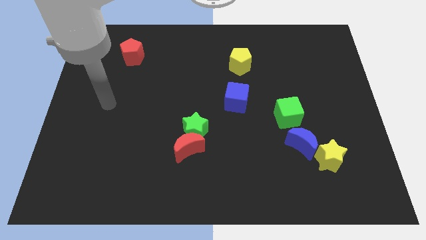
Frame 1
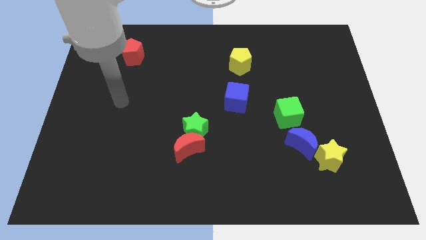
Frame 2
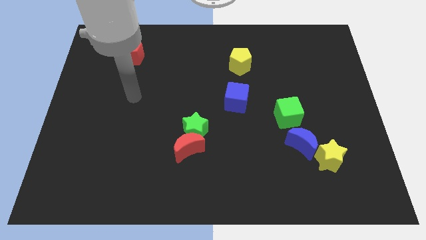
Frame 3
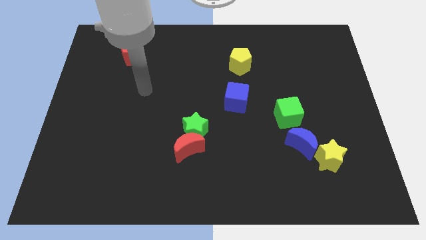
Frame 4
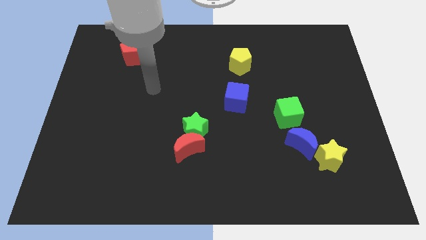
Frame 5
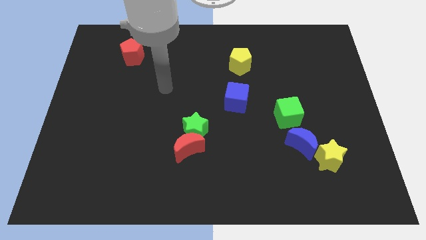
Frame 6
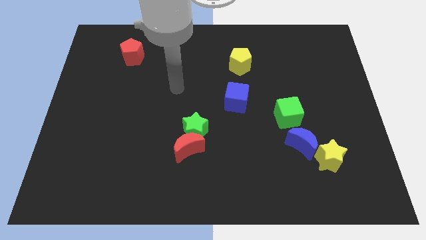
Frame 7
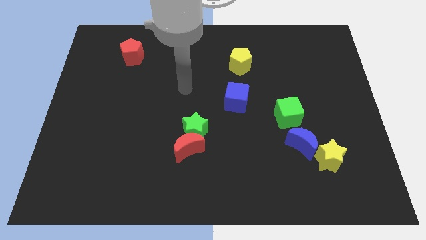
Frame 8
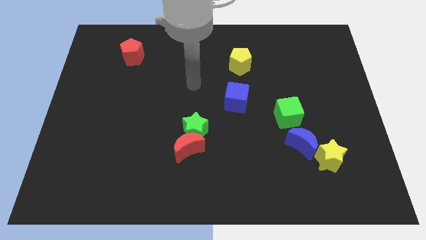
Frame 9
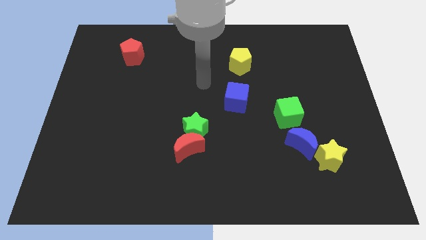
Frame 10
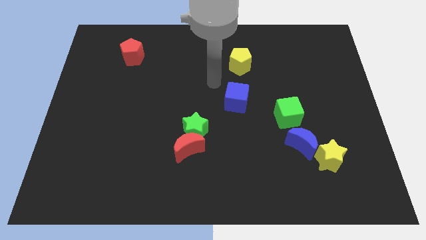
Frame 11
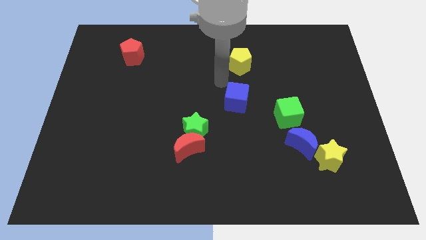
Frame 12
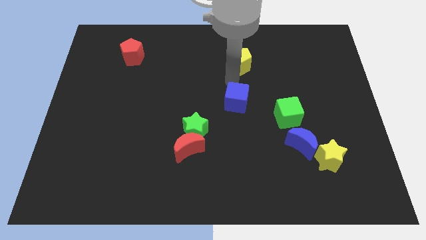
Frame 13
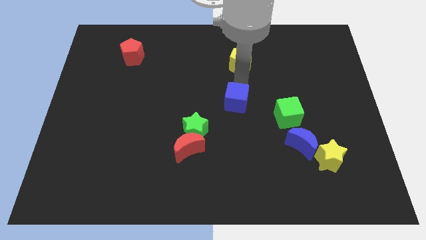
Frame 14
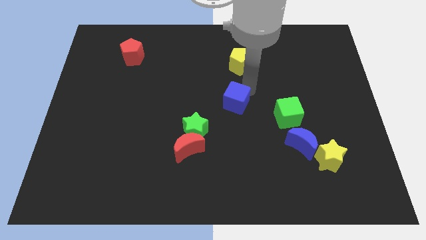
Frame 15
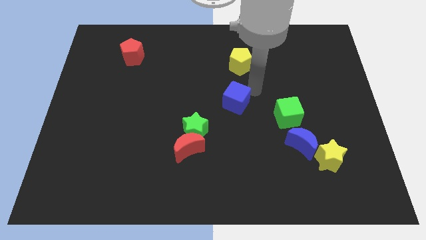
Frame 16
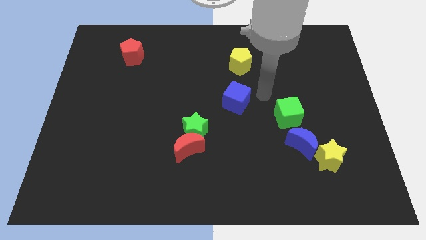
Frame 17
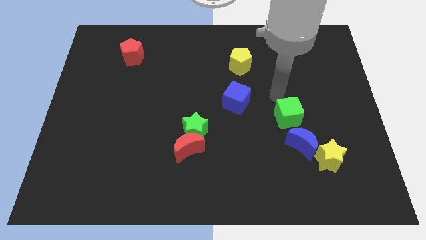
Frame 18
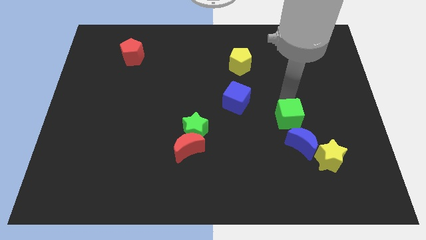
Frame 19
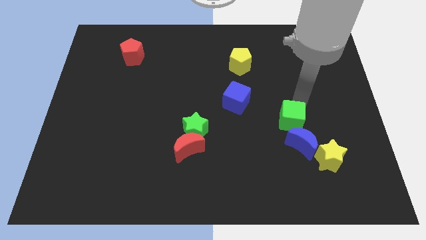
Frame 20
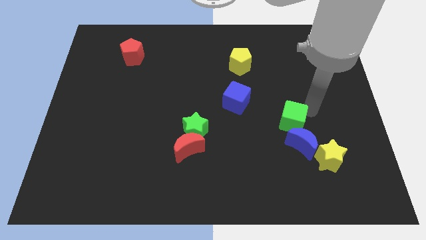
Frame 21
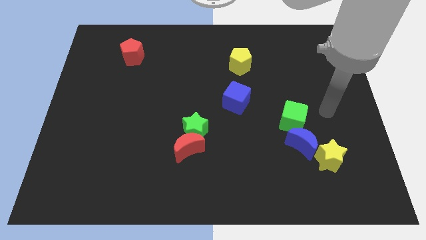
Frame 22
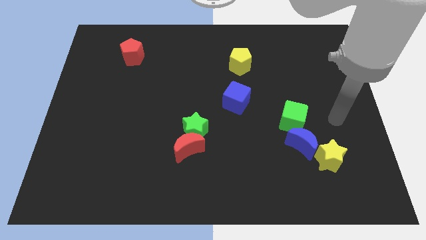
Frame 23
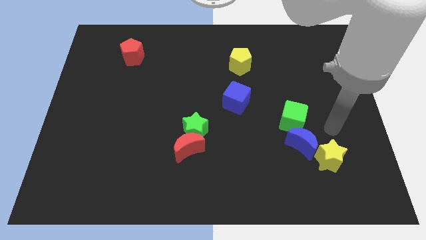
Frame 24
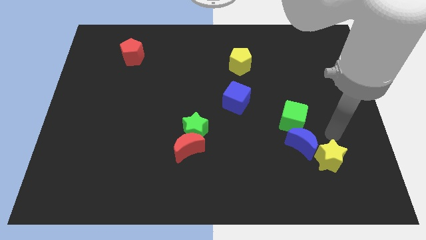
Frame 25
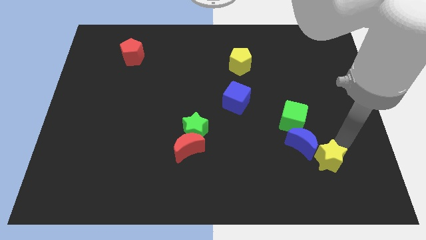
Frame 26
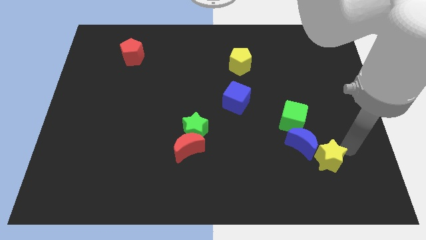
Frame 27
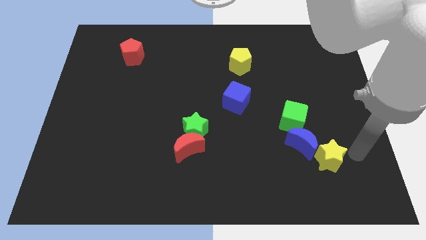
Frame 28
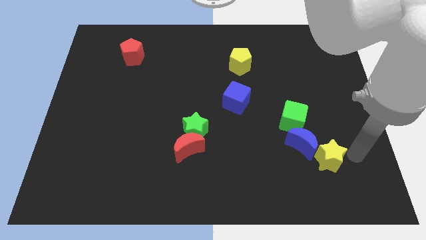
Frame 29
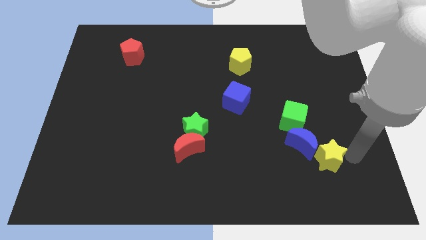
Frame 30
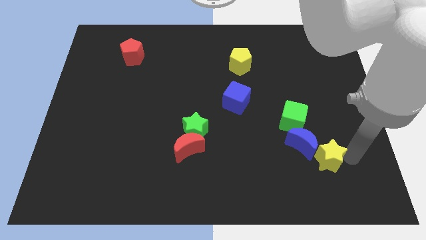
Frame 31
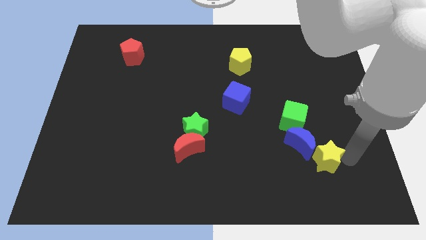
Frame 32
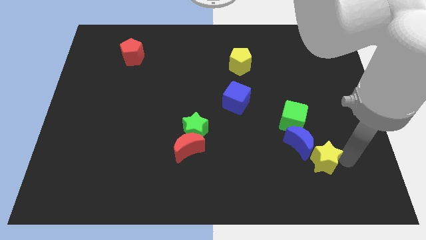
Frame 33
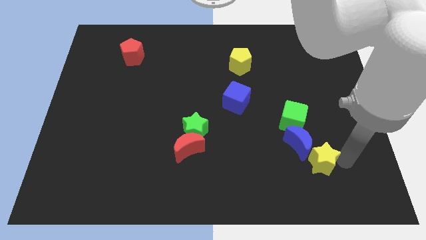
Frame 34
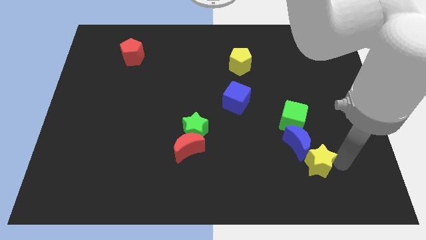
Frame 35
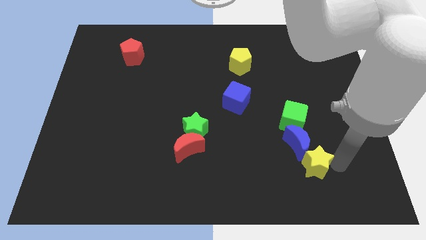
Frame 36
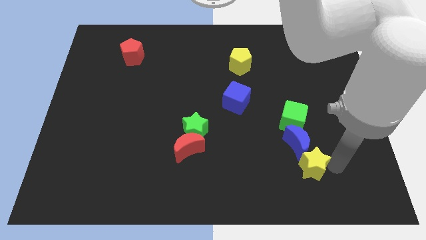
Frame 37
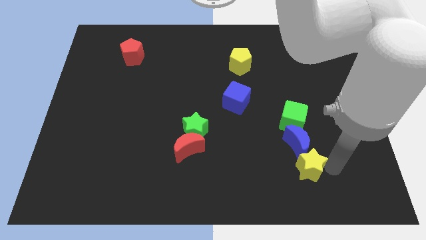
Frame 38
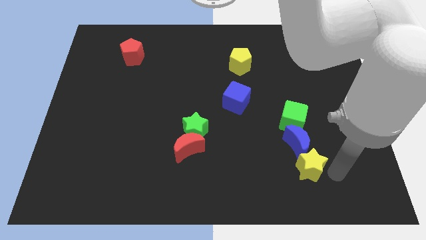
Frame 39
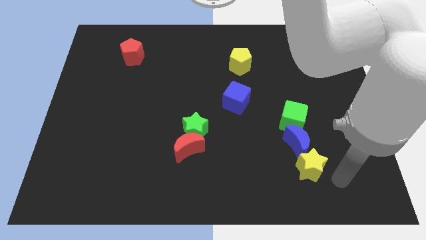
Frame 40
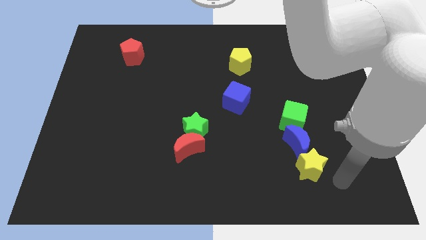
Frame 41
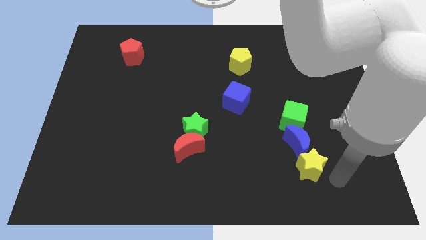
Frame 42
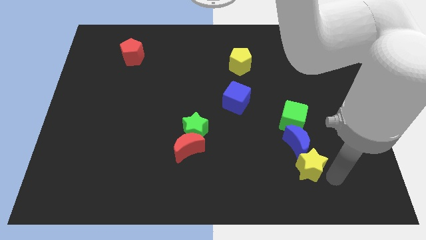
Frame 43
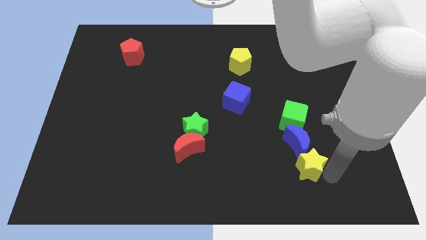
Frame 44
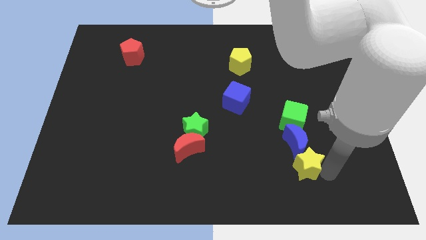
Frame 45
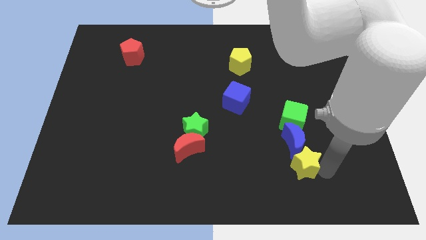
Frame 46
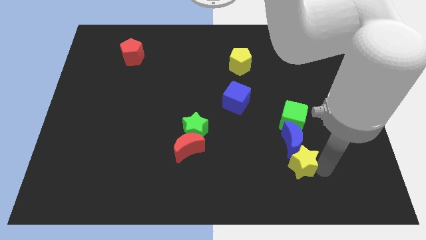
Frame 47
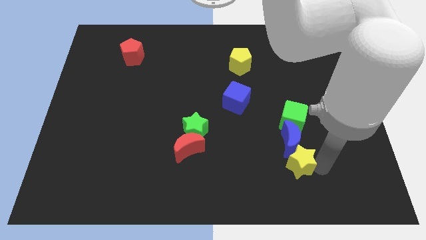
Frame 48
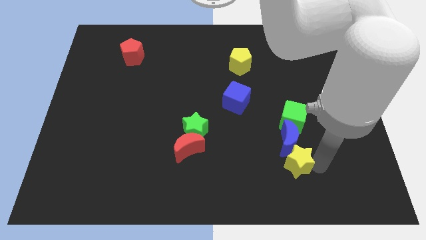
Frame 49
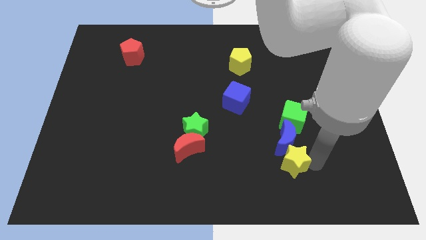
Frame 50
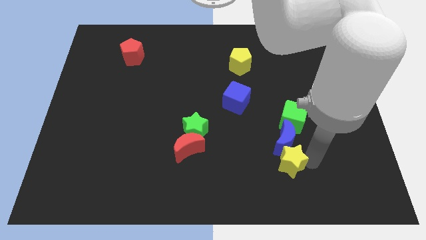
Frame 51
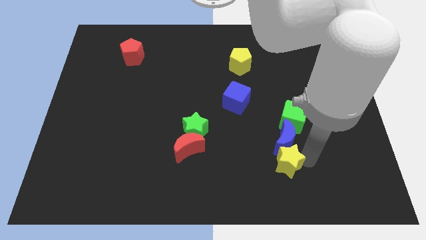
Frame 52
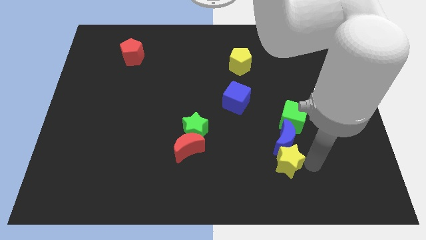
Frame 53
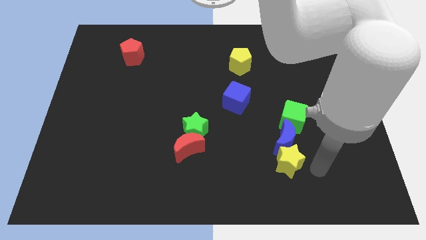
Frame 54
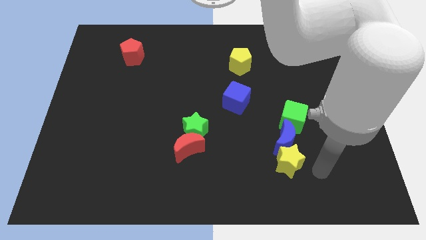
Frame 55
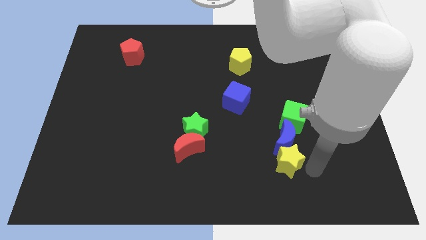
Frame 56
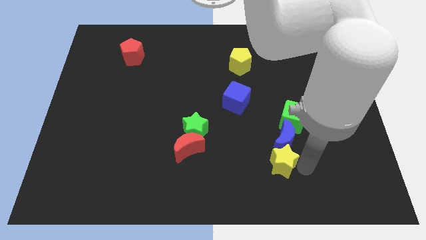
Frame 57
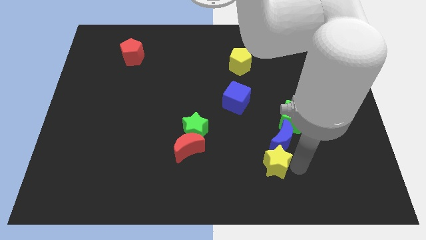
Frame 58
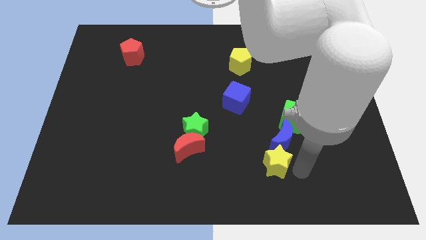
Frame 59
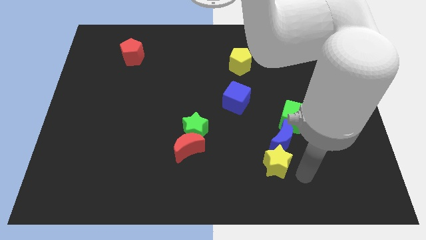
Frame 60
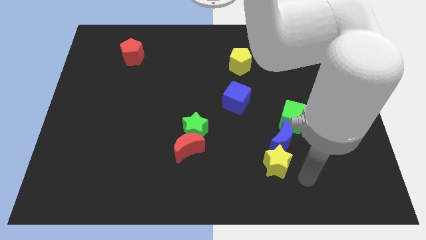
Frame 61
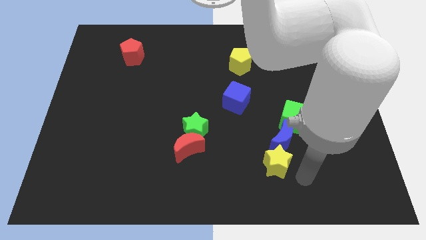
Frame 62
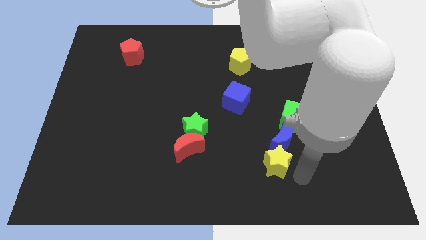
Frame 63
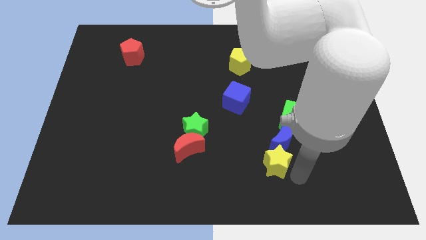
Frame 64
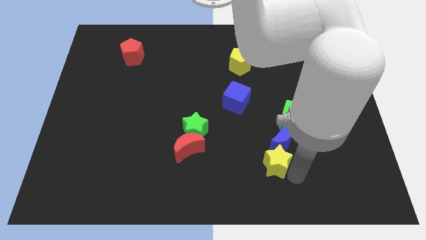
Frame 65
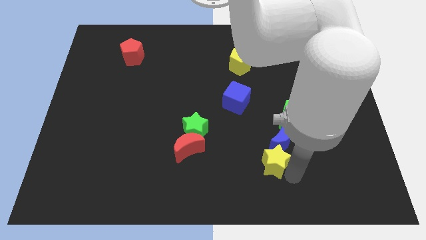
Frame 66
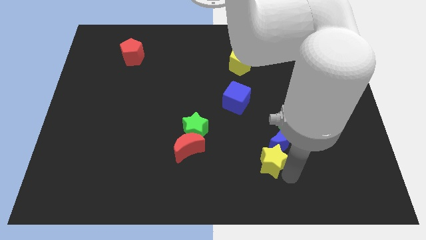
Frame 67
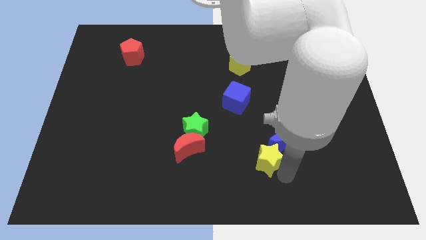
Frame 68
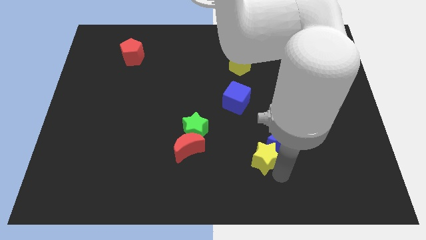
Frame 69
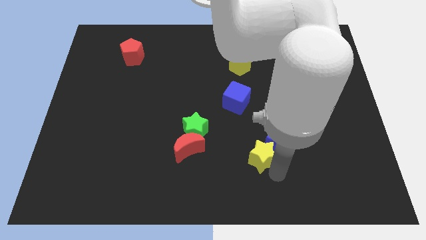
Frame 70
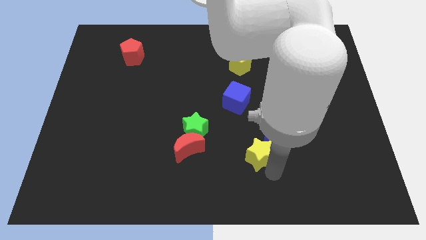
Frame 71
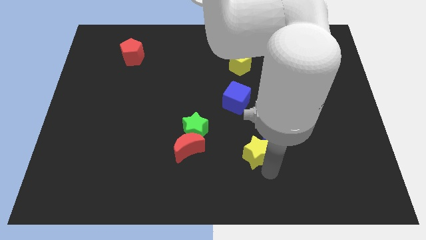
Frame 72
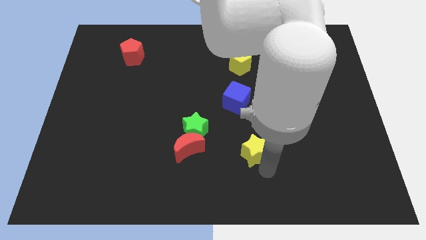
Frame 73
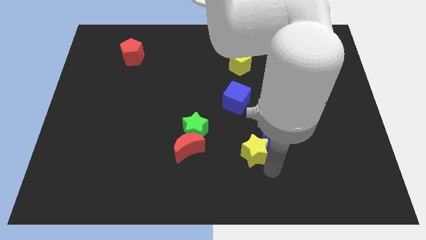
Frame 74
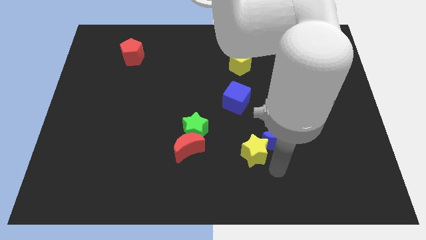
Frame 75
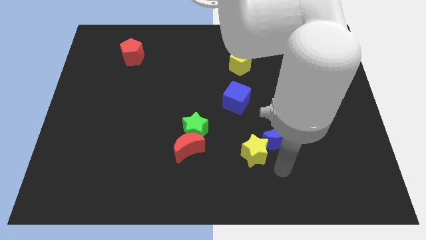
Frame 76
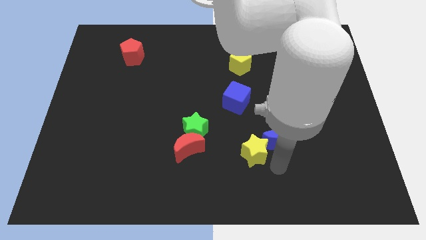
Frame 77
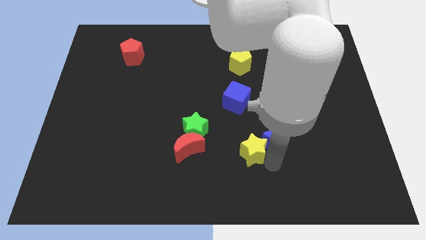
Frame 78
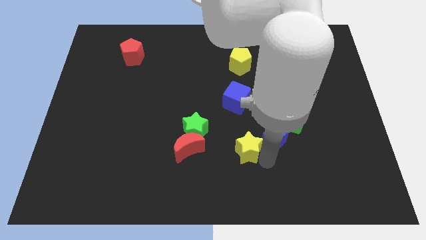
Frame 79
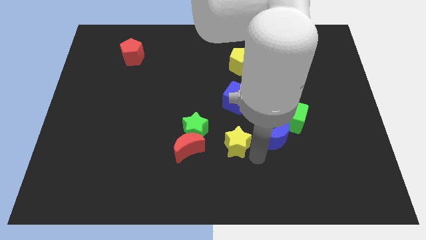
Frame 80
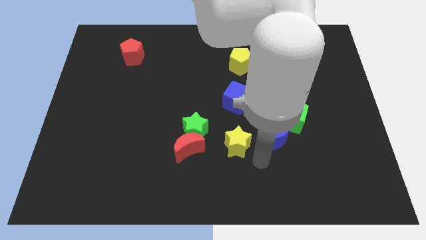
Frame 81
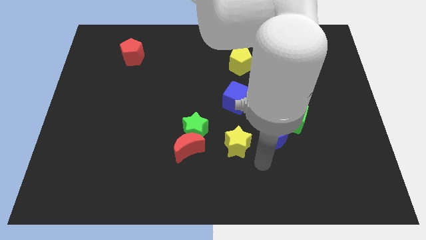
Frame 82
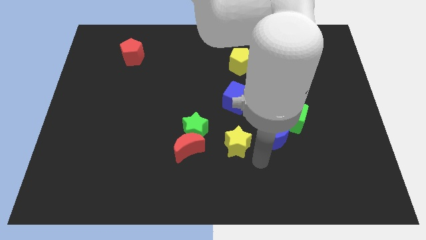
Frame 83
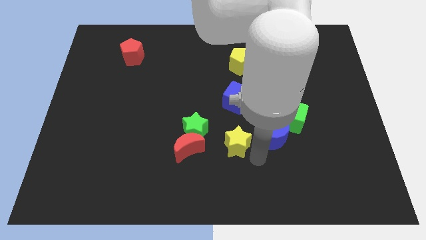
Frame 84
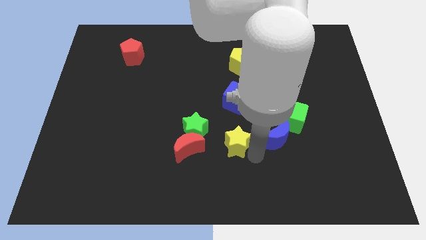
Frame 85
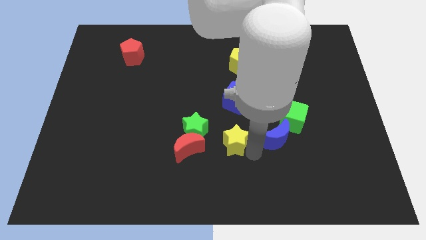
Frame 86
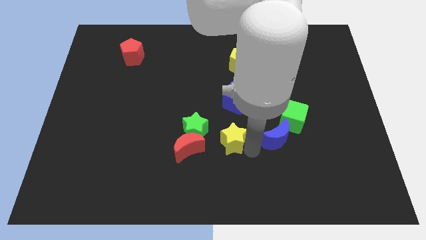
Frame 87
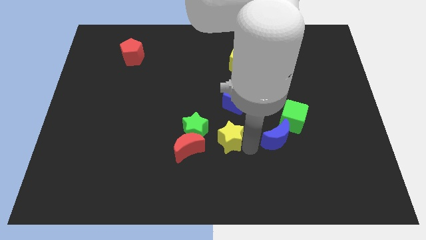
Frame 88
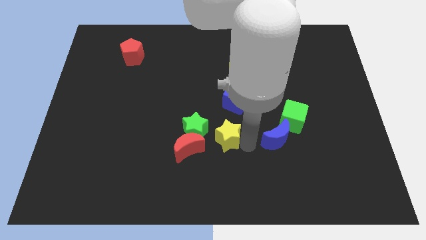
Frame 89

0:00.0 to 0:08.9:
move the yellow star to the top right of the red moon
